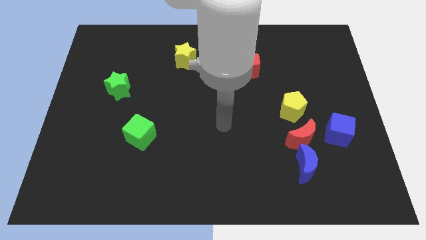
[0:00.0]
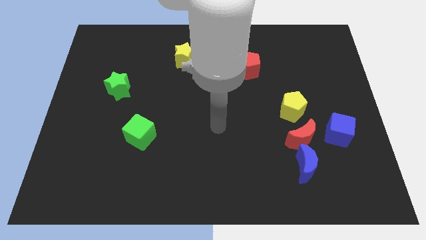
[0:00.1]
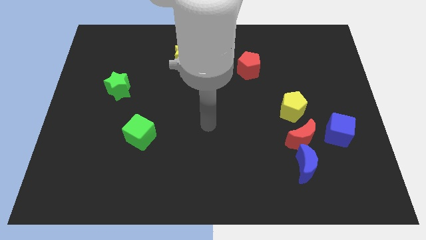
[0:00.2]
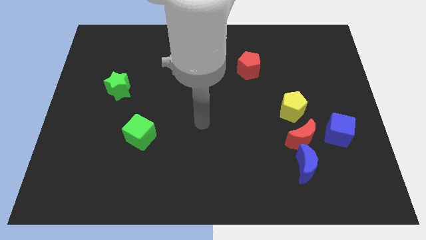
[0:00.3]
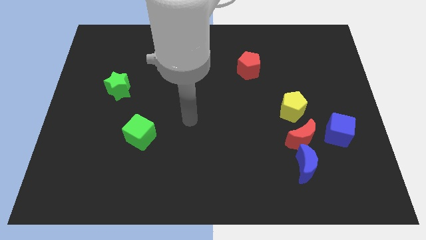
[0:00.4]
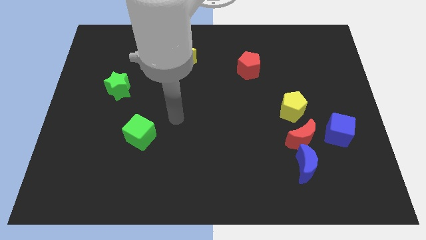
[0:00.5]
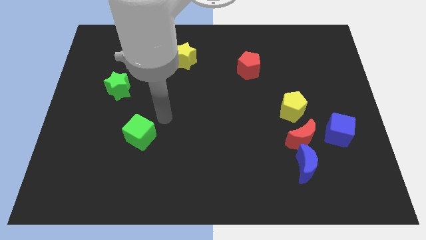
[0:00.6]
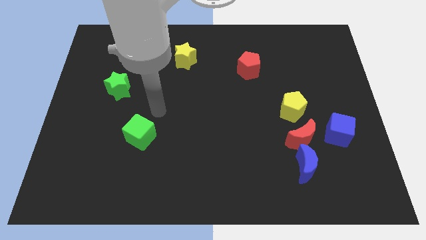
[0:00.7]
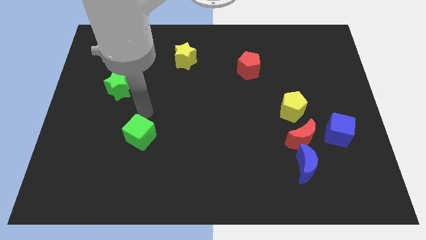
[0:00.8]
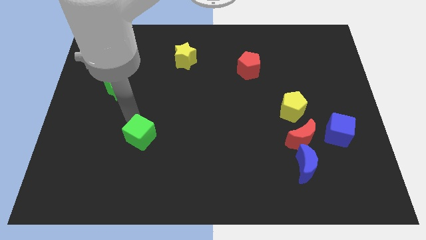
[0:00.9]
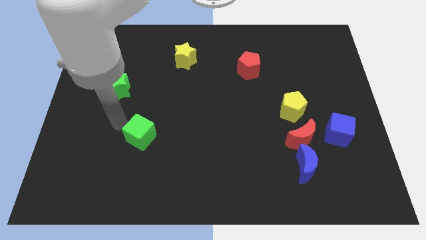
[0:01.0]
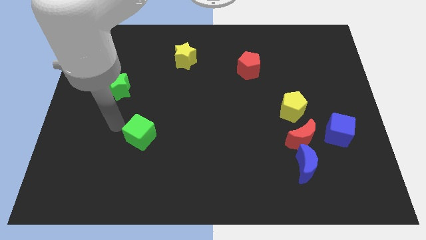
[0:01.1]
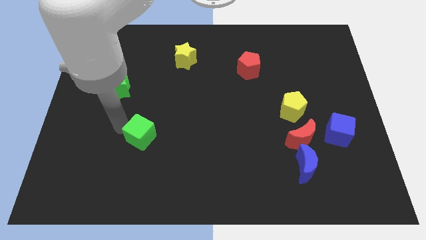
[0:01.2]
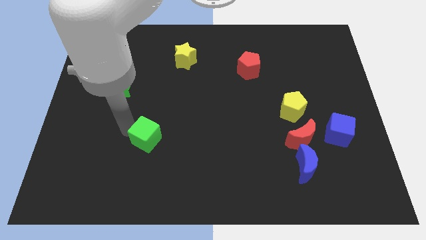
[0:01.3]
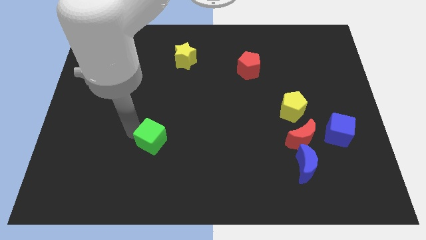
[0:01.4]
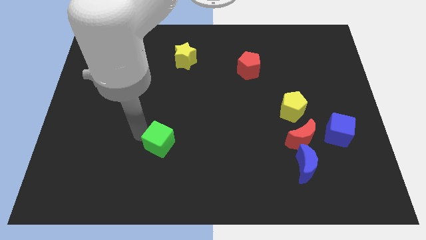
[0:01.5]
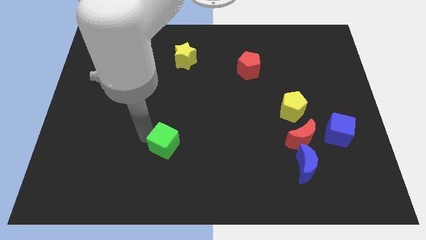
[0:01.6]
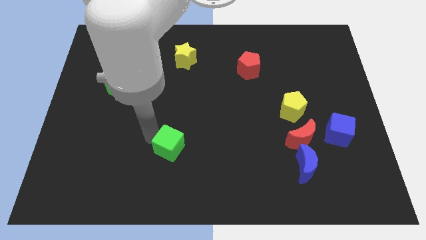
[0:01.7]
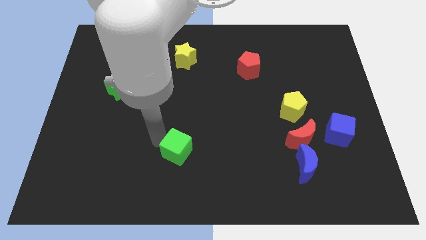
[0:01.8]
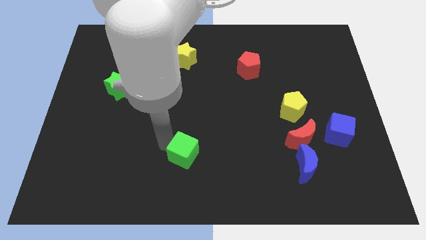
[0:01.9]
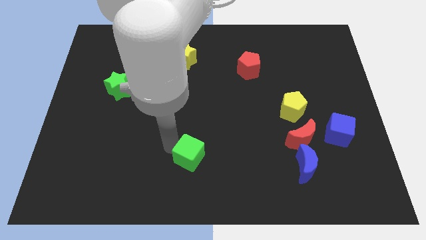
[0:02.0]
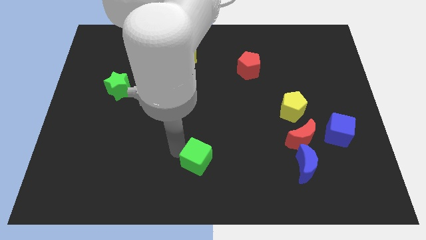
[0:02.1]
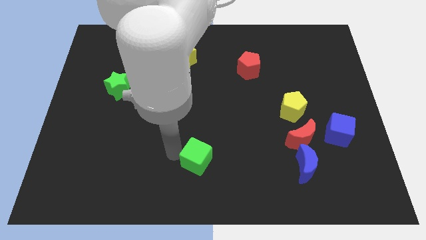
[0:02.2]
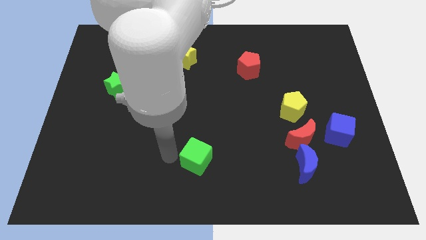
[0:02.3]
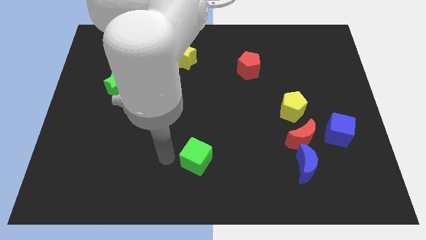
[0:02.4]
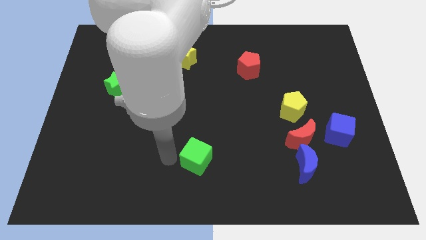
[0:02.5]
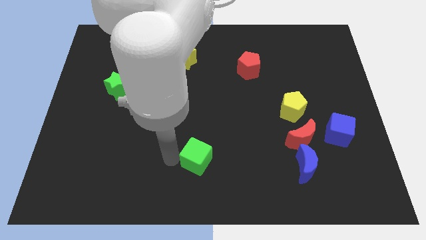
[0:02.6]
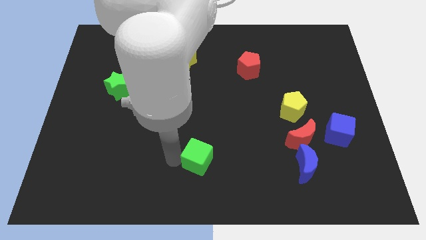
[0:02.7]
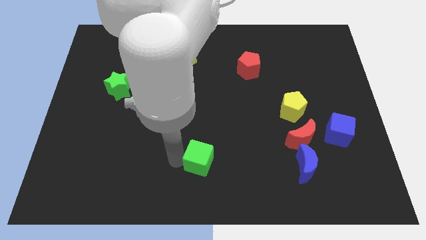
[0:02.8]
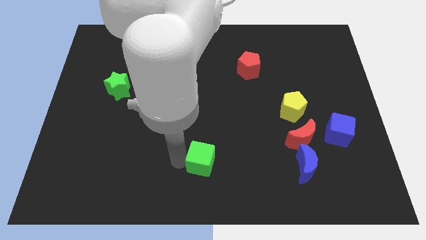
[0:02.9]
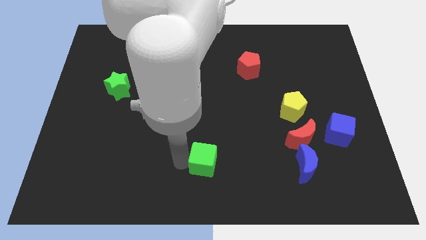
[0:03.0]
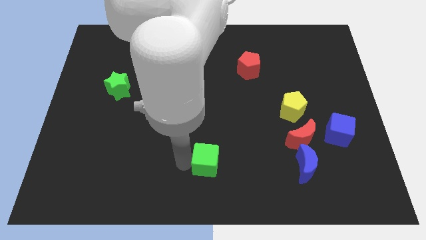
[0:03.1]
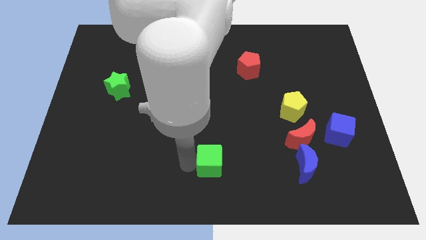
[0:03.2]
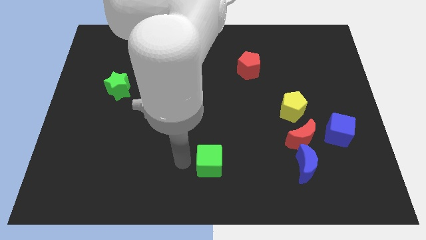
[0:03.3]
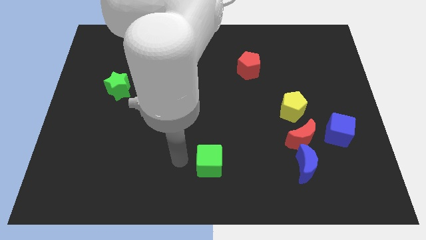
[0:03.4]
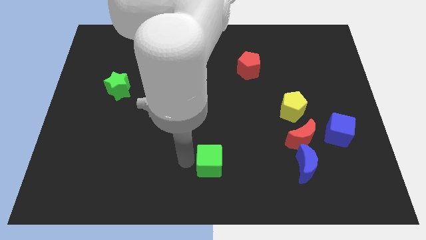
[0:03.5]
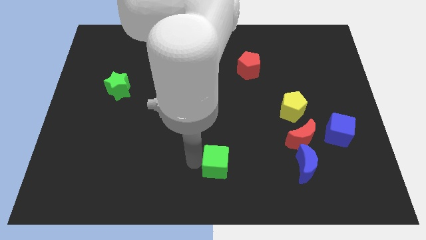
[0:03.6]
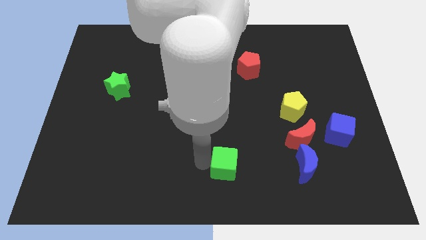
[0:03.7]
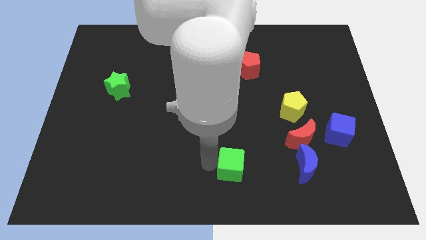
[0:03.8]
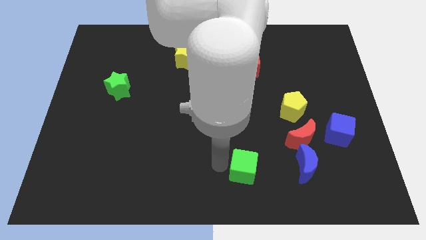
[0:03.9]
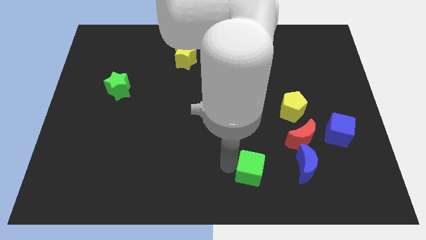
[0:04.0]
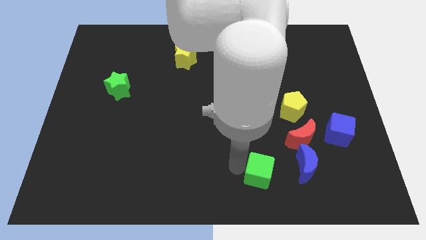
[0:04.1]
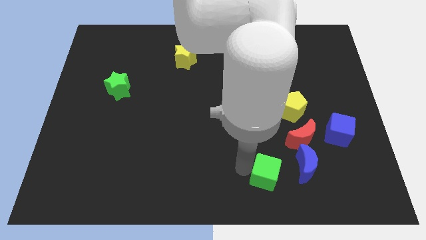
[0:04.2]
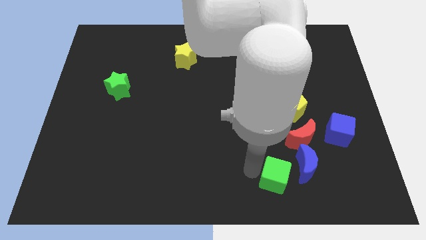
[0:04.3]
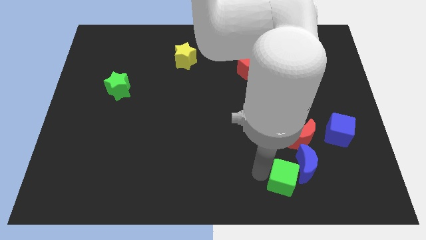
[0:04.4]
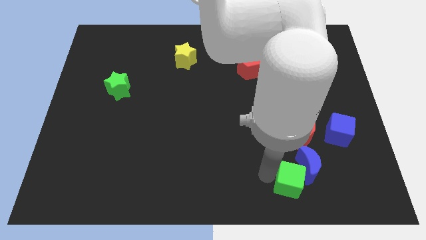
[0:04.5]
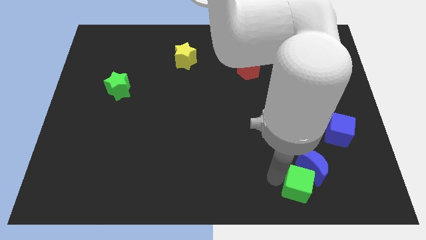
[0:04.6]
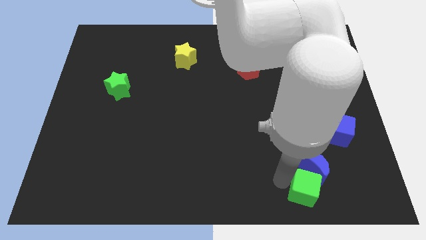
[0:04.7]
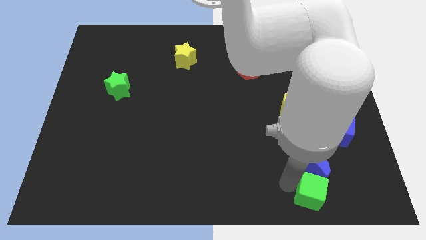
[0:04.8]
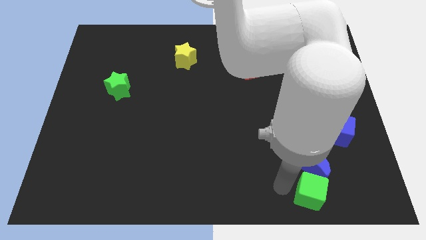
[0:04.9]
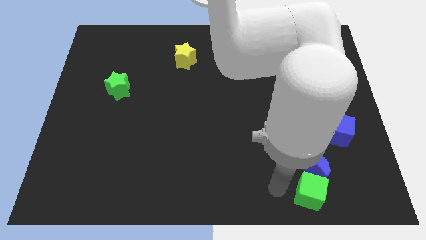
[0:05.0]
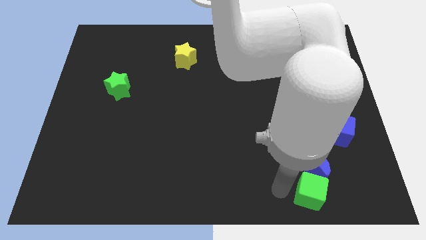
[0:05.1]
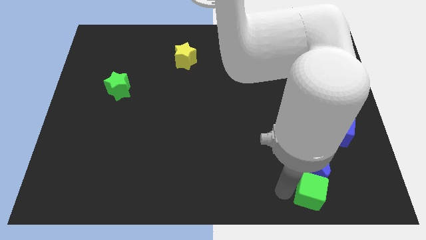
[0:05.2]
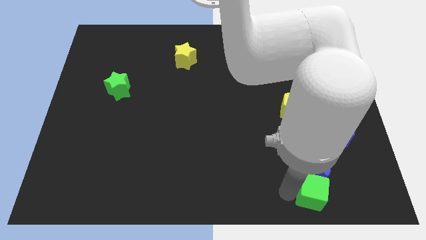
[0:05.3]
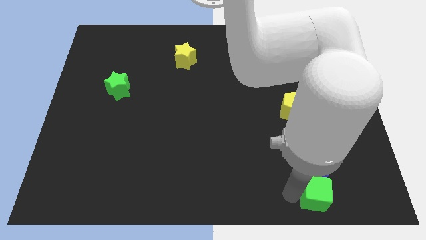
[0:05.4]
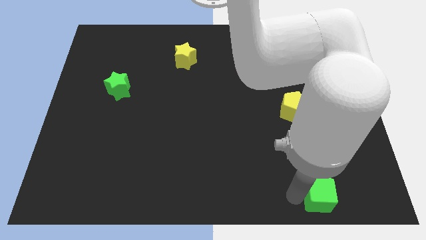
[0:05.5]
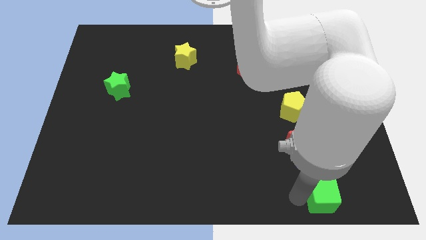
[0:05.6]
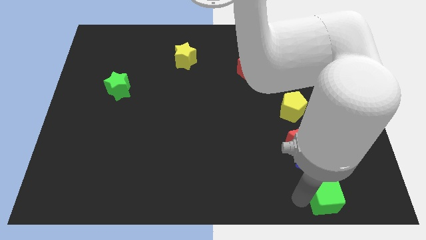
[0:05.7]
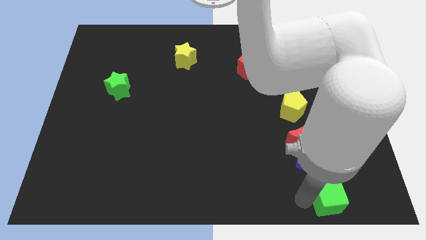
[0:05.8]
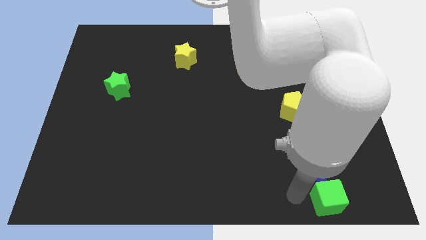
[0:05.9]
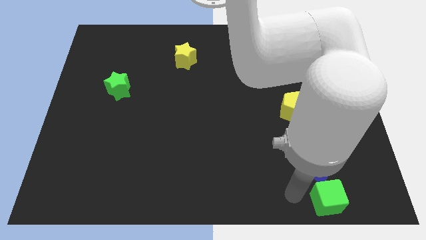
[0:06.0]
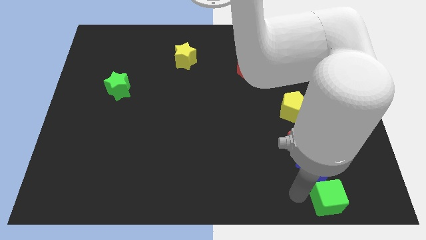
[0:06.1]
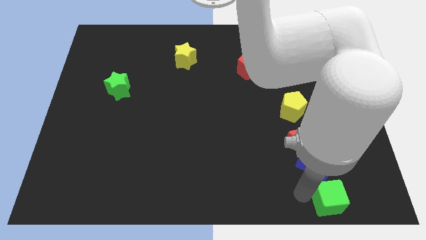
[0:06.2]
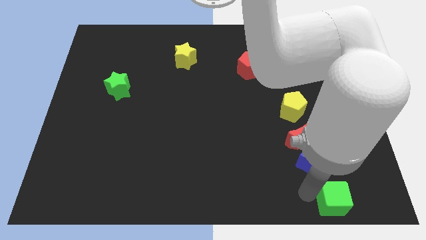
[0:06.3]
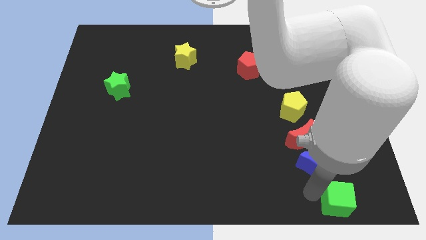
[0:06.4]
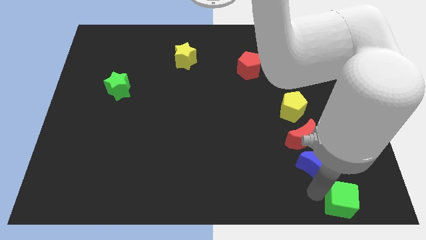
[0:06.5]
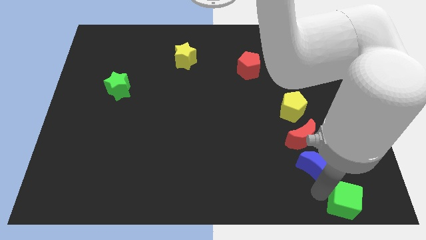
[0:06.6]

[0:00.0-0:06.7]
move the green cube to the lower right corner

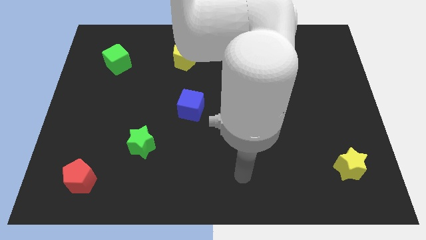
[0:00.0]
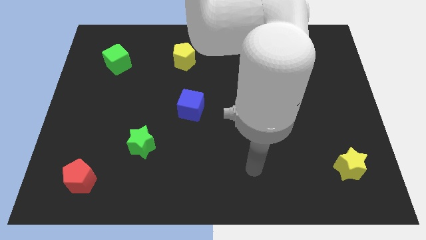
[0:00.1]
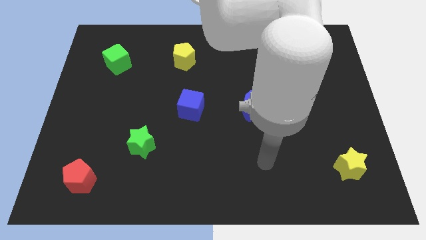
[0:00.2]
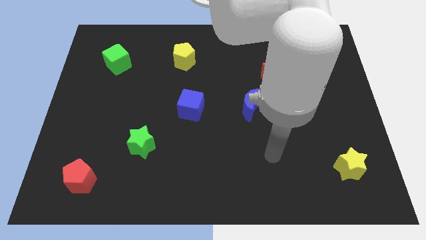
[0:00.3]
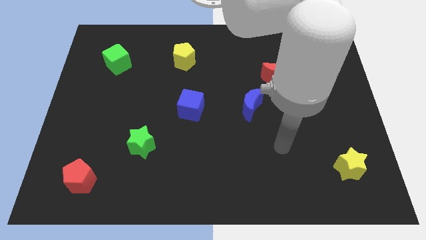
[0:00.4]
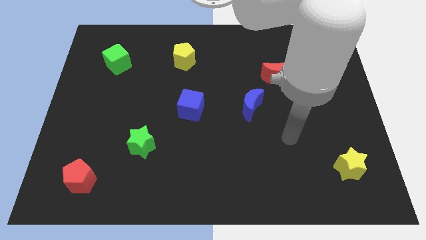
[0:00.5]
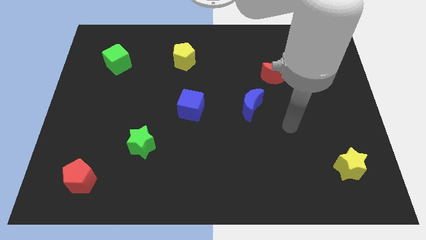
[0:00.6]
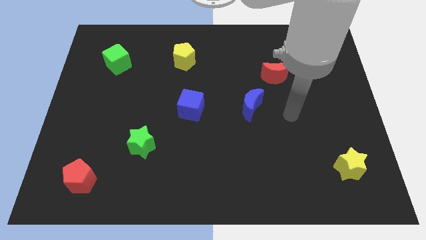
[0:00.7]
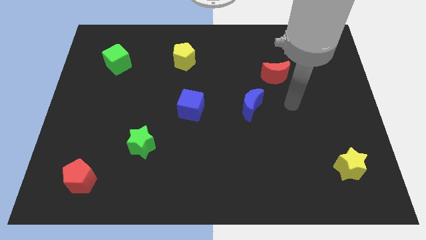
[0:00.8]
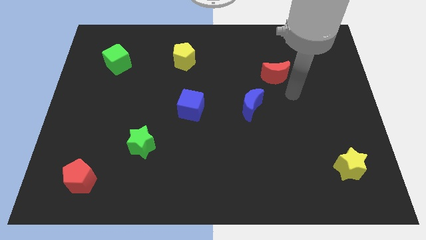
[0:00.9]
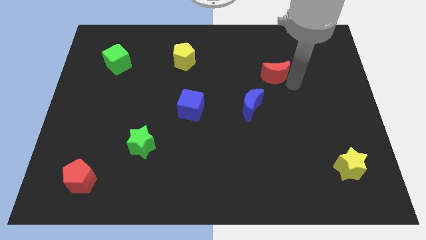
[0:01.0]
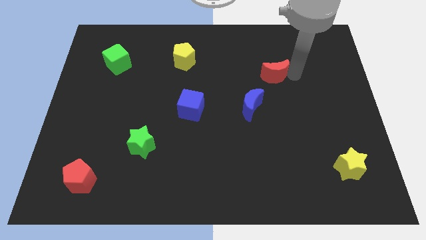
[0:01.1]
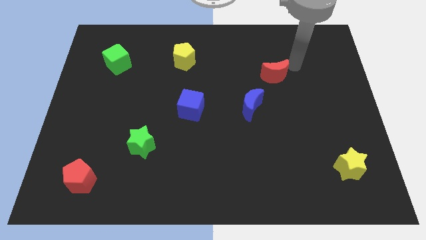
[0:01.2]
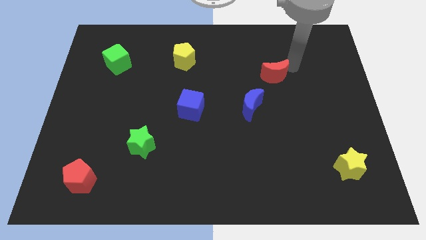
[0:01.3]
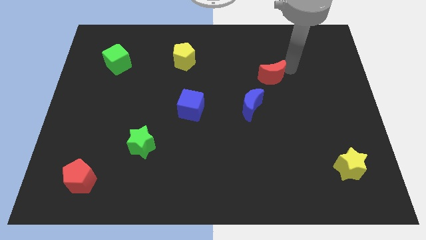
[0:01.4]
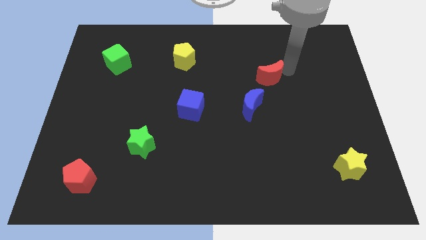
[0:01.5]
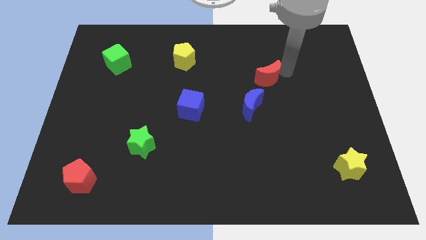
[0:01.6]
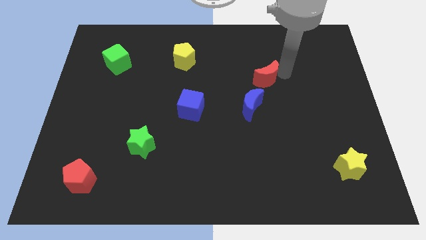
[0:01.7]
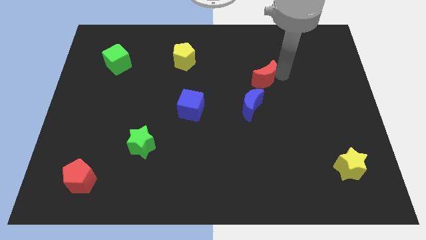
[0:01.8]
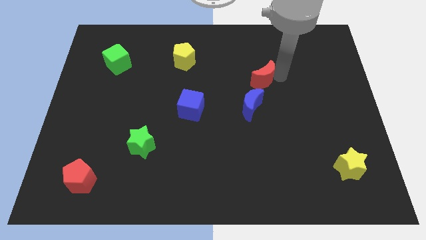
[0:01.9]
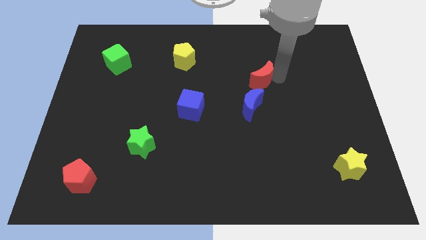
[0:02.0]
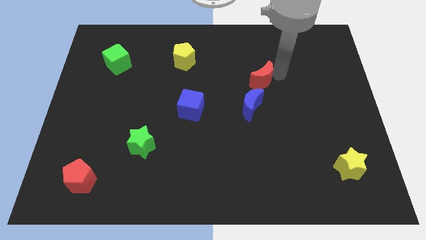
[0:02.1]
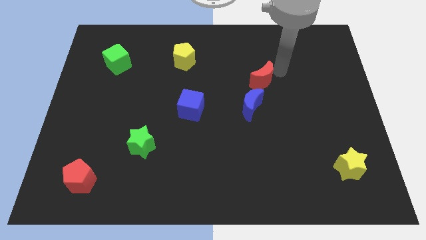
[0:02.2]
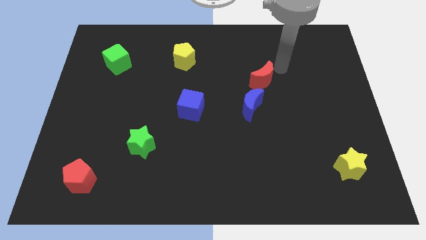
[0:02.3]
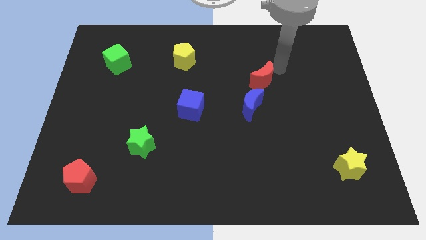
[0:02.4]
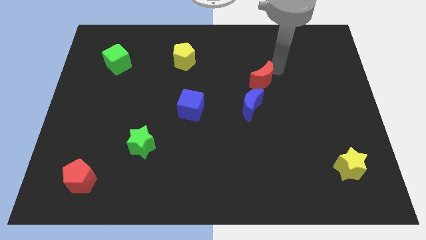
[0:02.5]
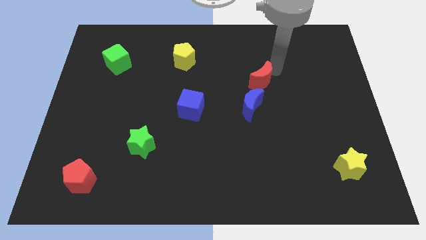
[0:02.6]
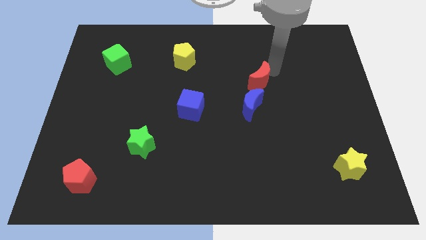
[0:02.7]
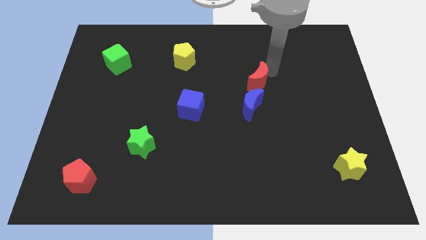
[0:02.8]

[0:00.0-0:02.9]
slide the red moon to the center of the board
